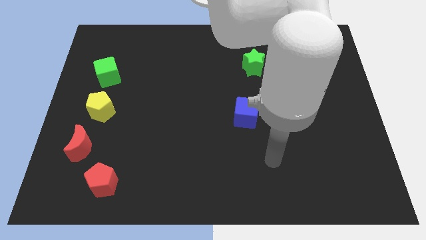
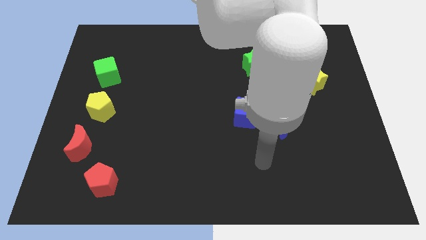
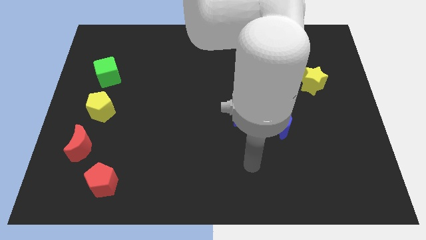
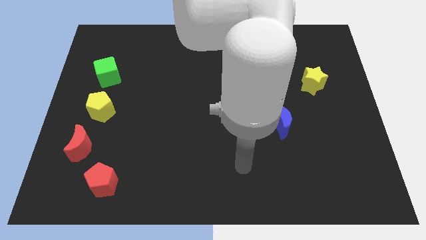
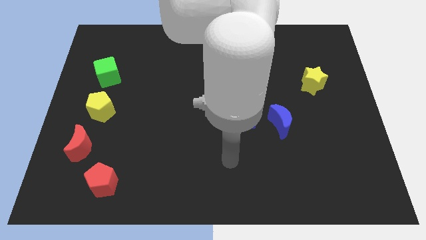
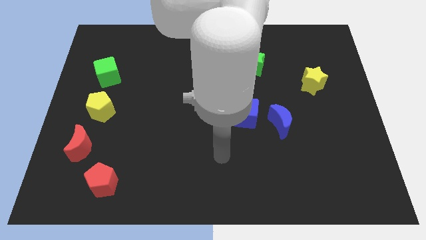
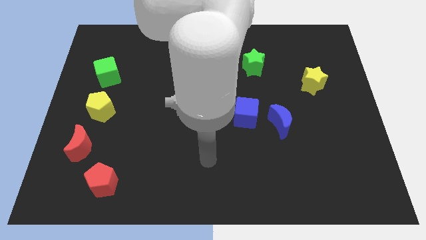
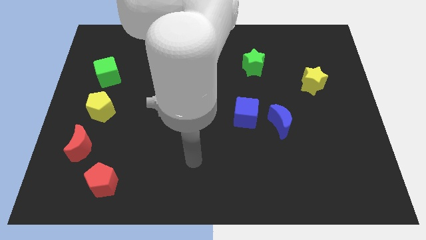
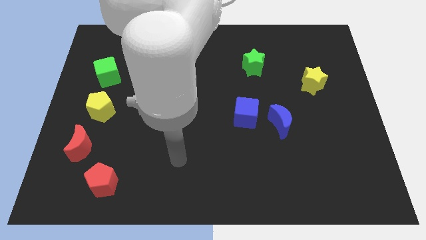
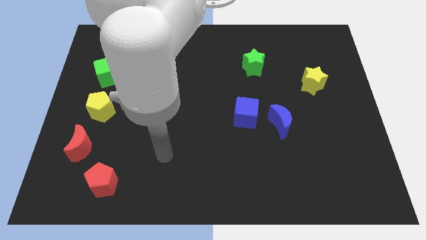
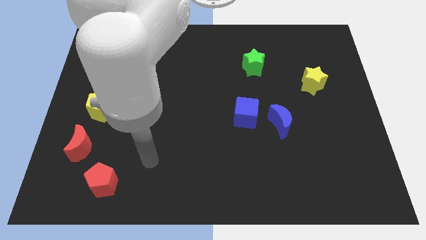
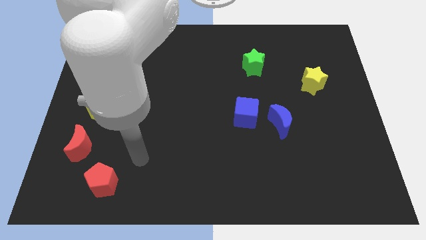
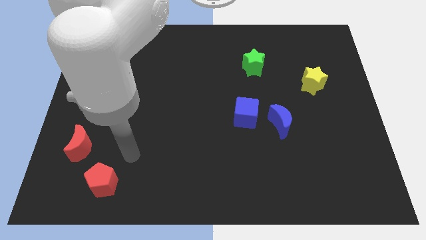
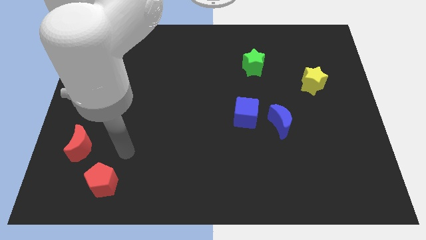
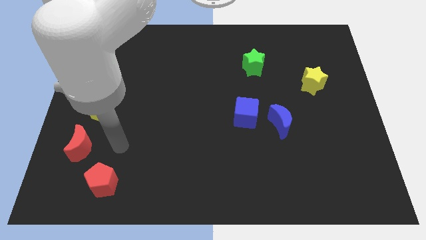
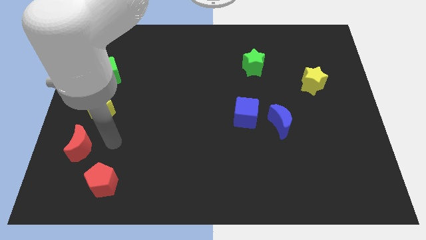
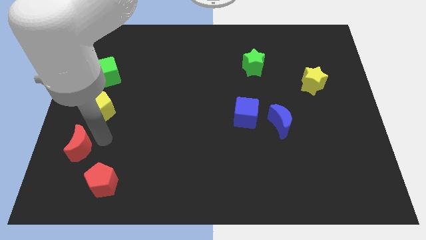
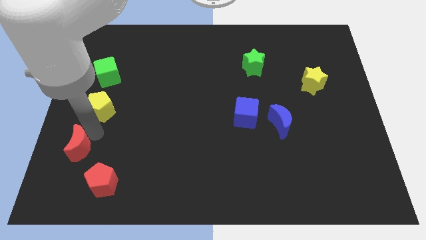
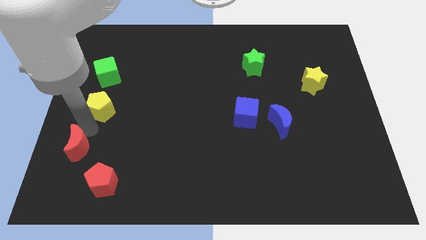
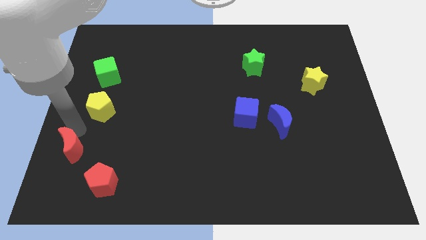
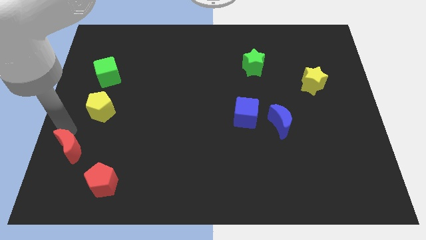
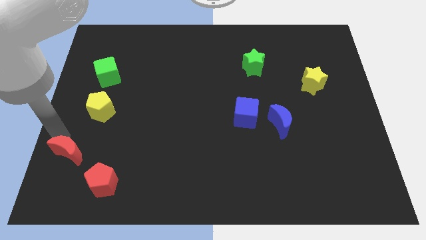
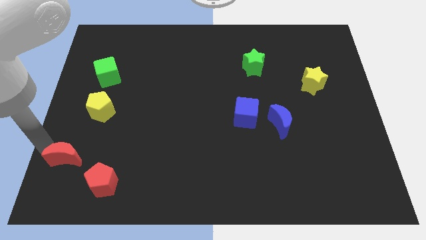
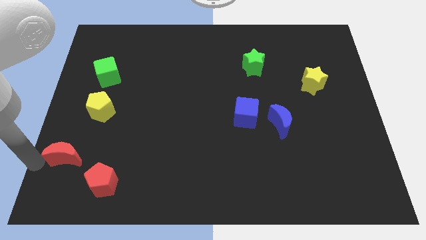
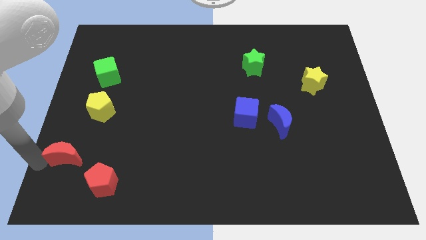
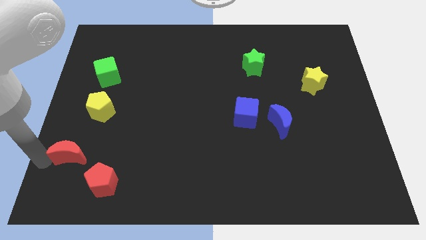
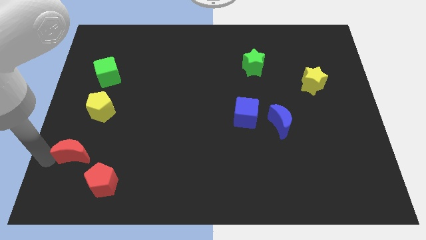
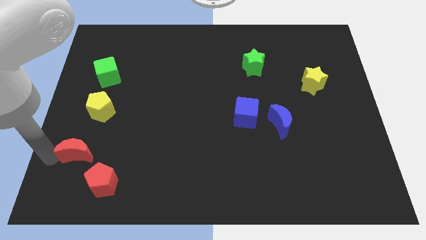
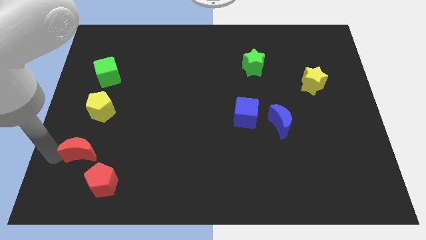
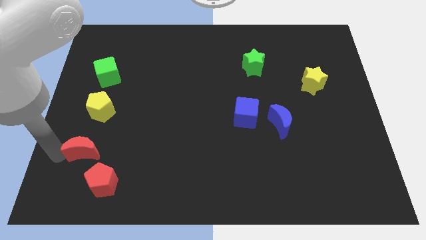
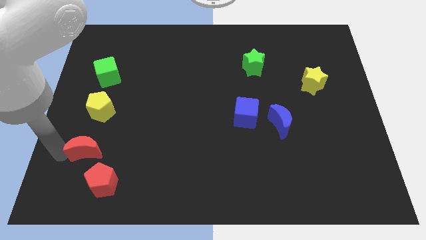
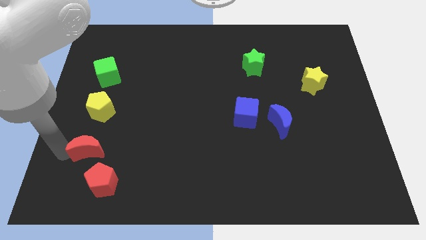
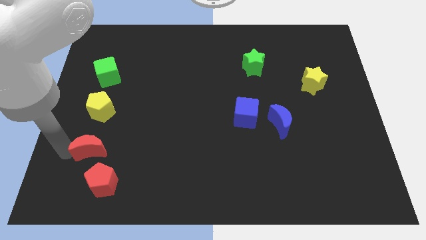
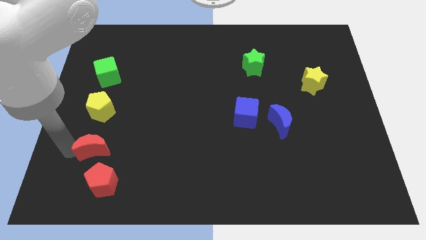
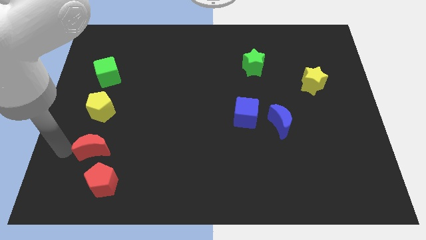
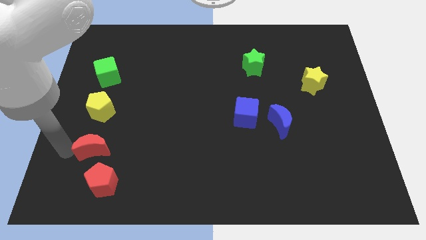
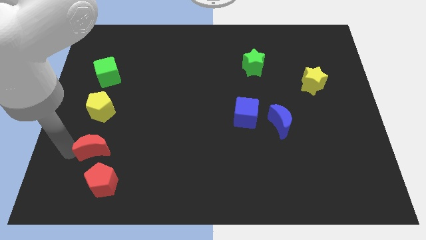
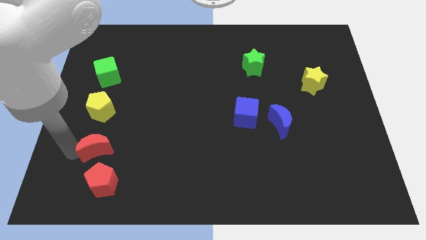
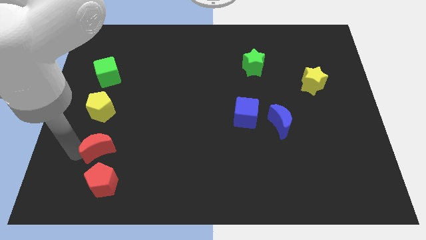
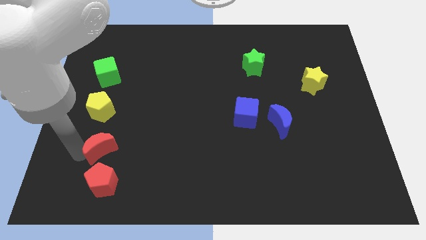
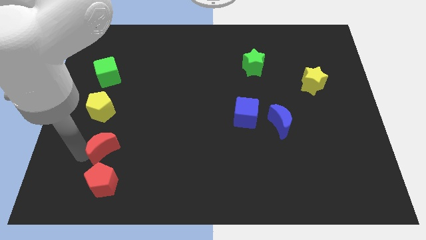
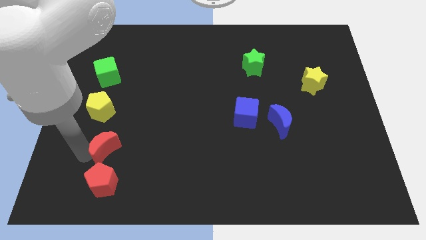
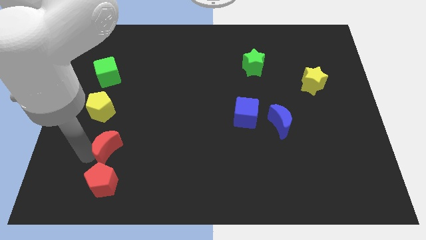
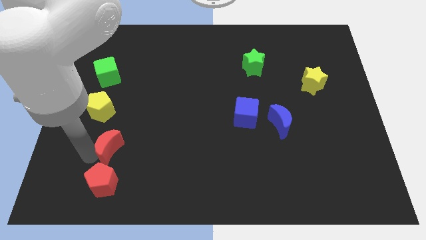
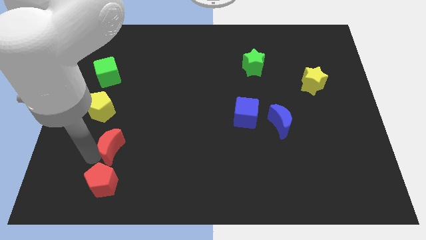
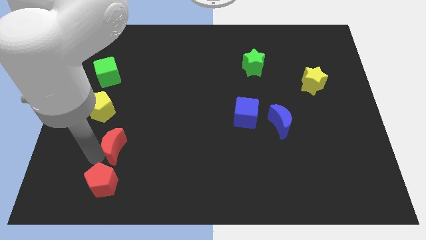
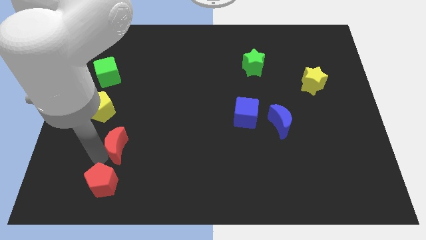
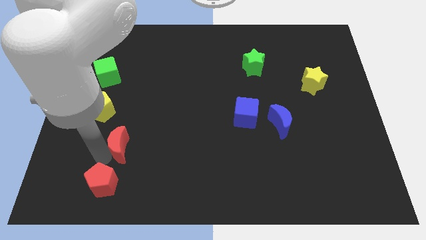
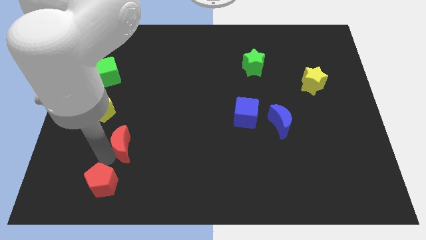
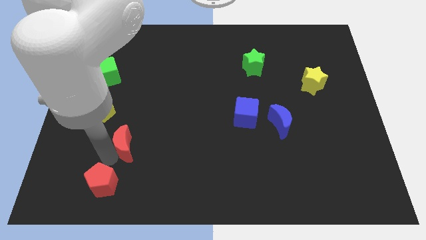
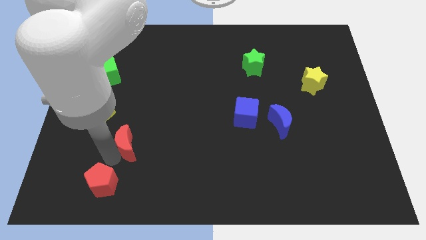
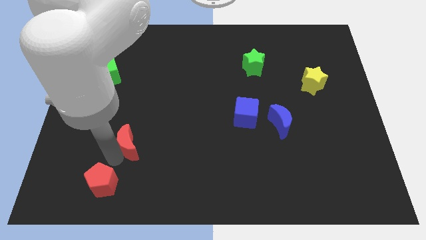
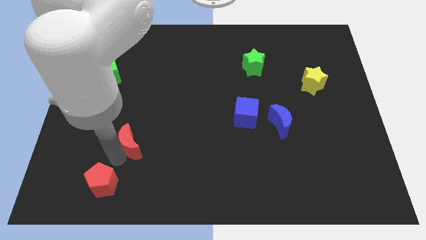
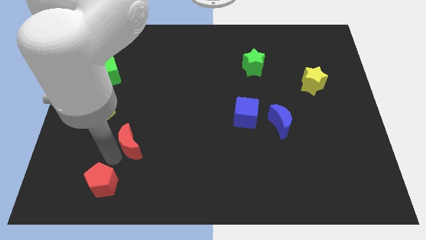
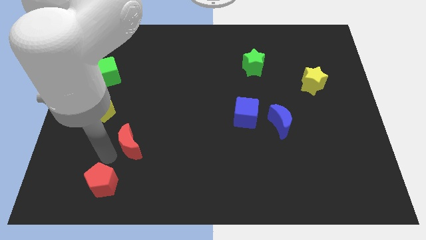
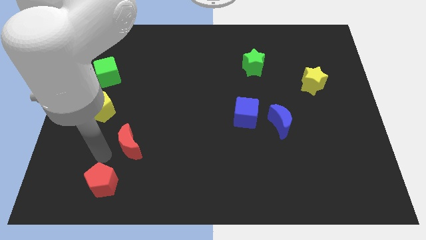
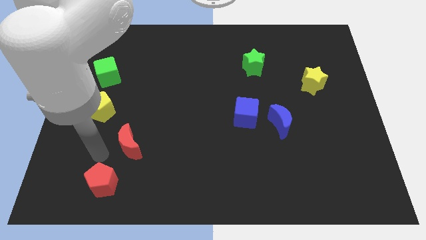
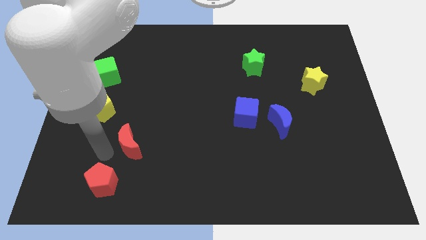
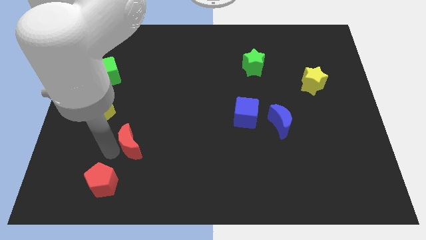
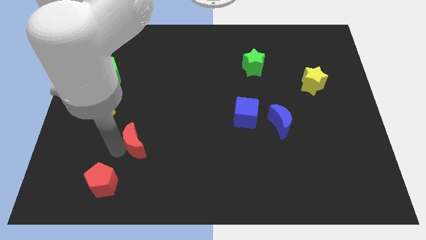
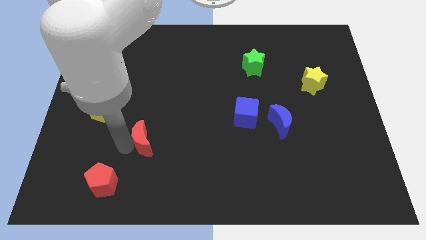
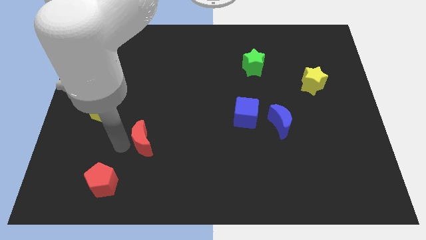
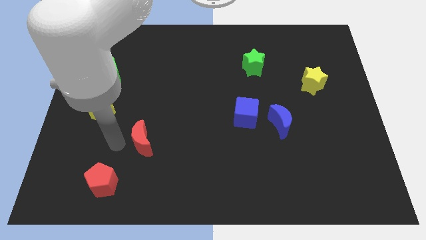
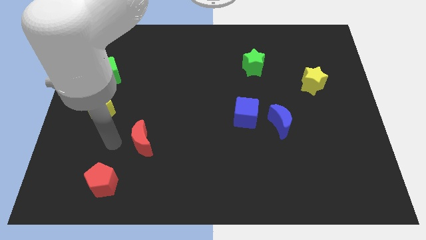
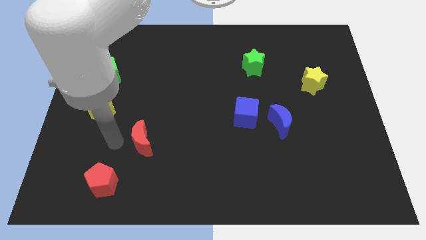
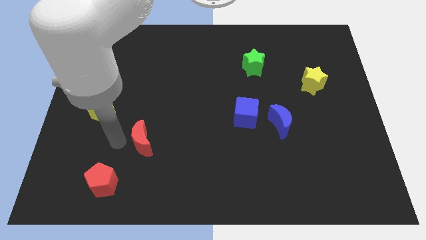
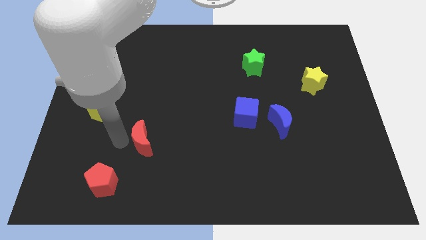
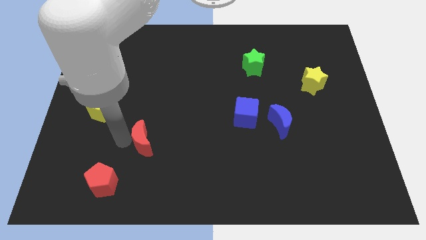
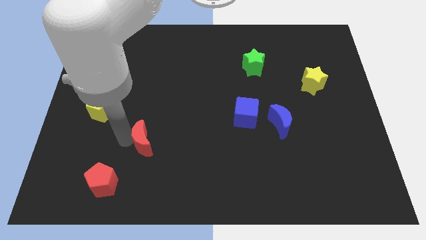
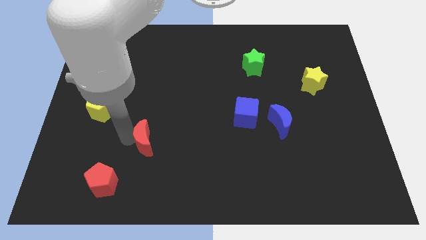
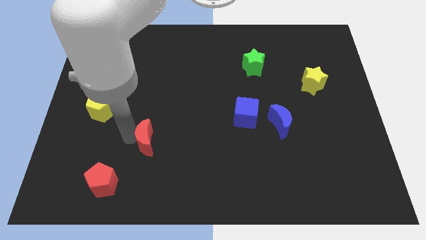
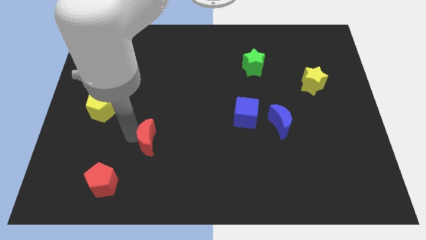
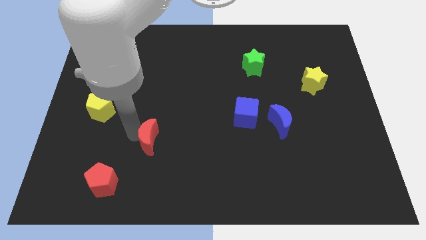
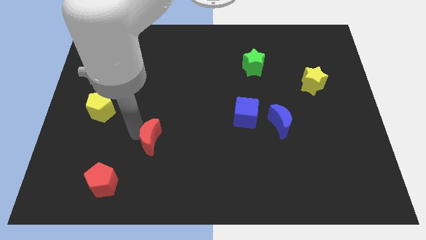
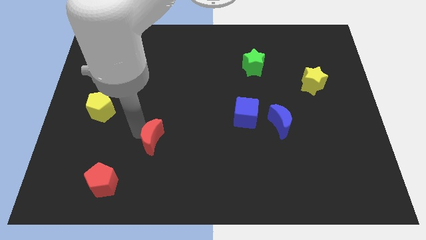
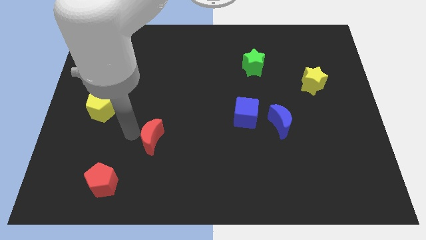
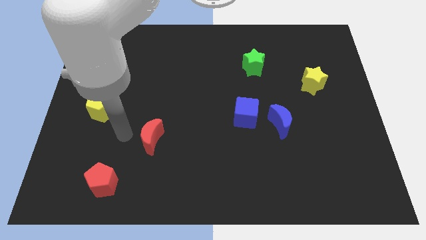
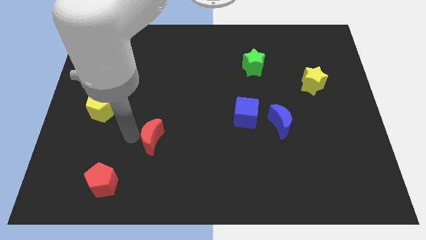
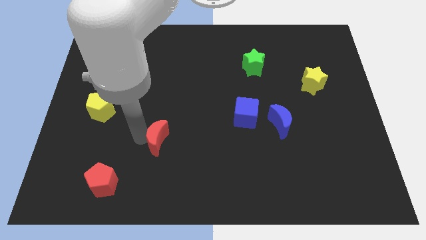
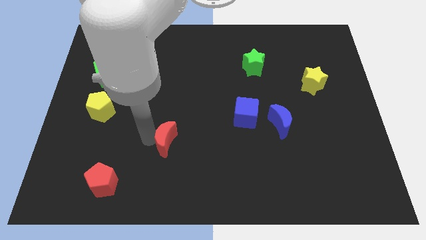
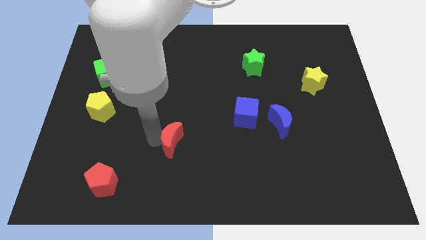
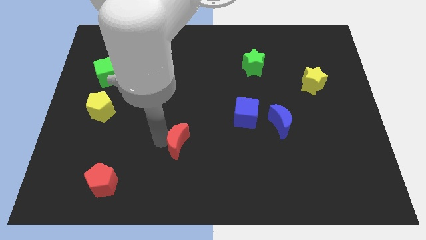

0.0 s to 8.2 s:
move the red moon right
